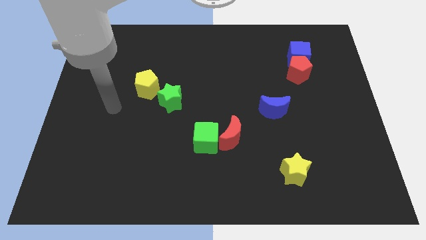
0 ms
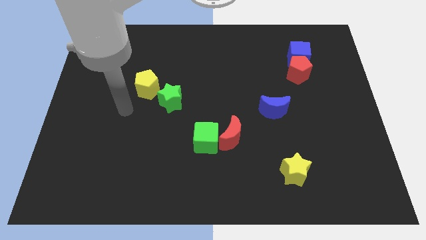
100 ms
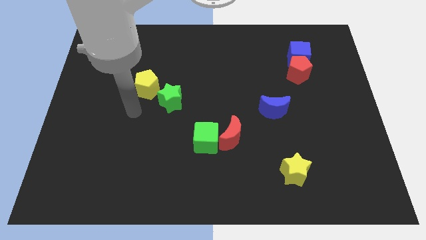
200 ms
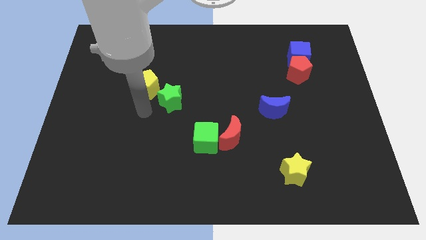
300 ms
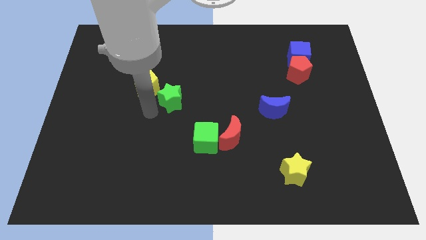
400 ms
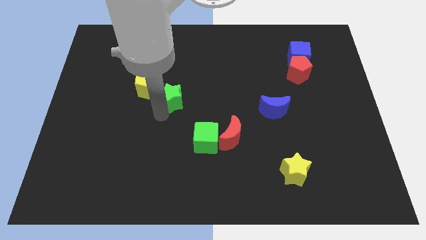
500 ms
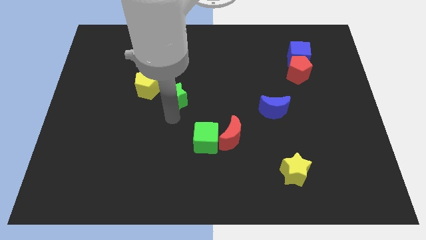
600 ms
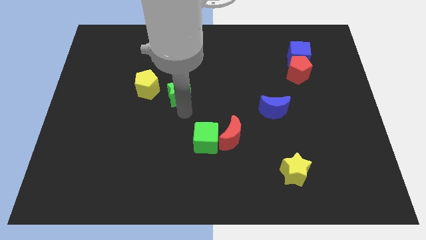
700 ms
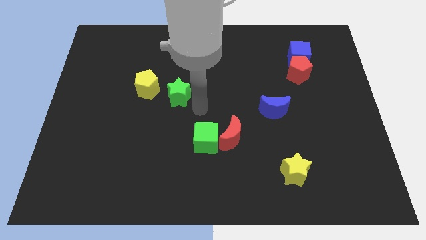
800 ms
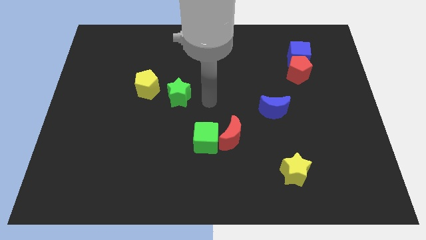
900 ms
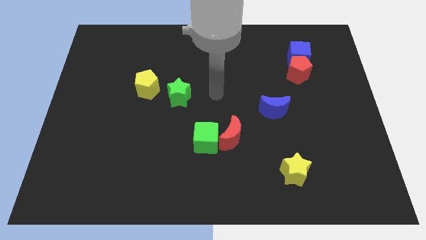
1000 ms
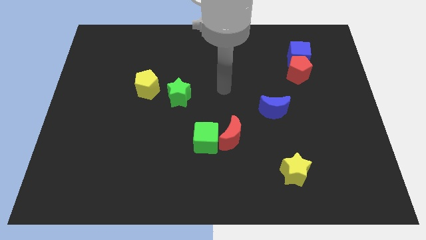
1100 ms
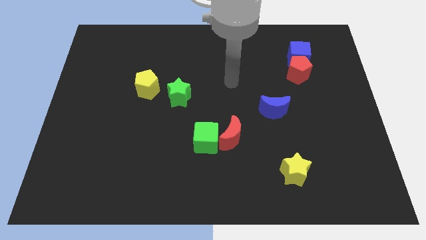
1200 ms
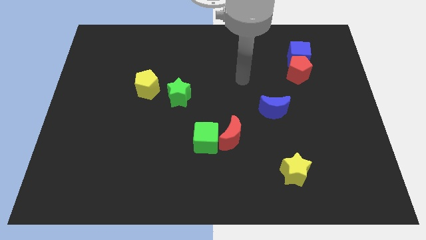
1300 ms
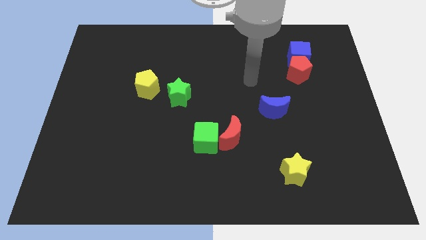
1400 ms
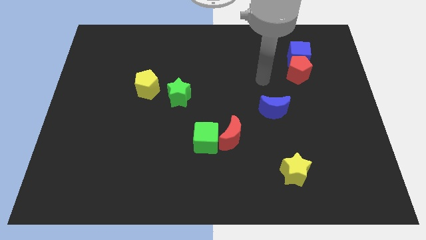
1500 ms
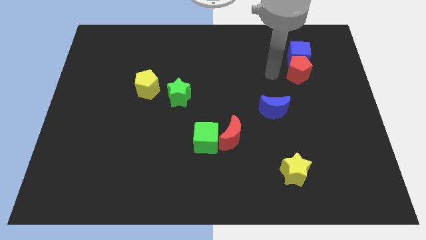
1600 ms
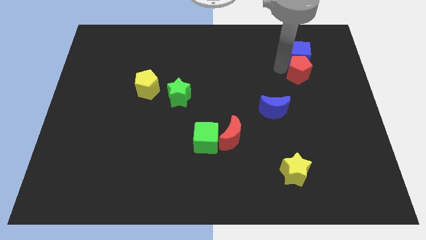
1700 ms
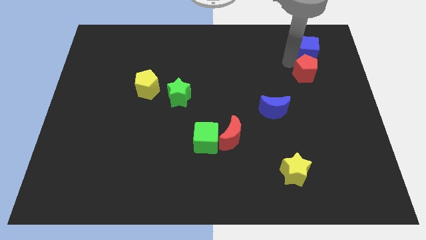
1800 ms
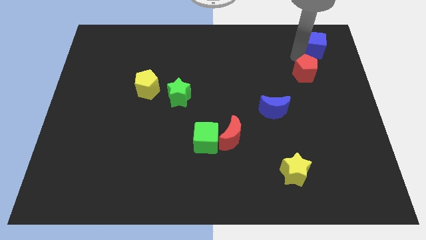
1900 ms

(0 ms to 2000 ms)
separate the red pentagon from the blue cube

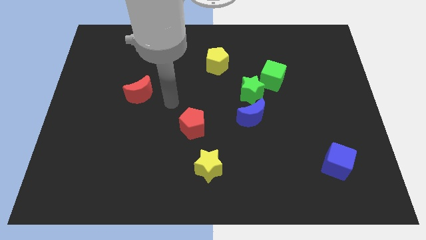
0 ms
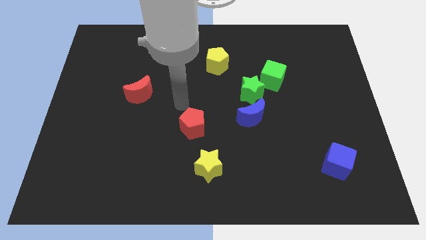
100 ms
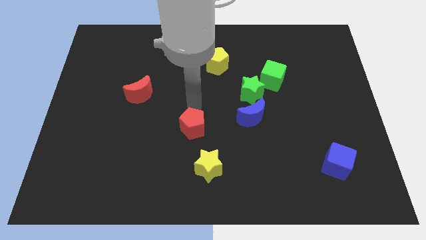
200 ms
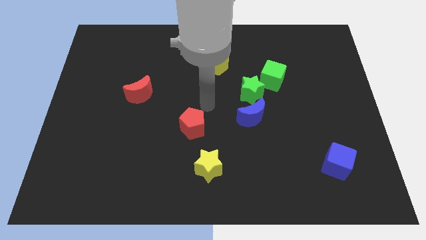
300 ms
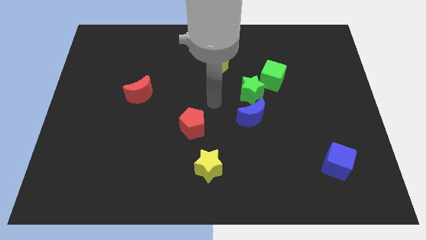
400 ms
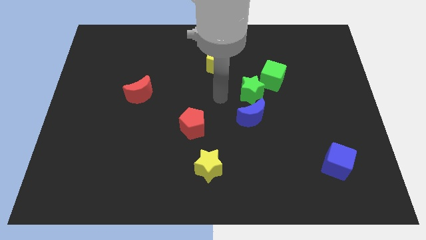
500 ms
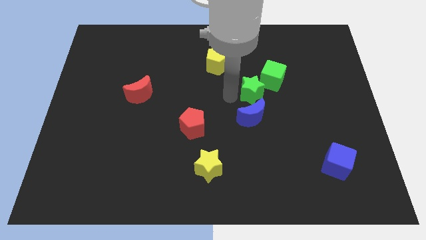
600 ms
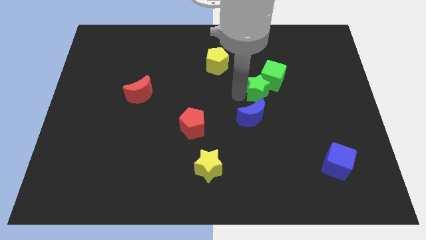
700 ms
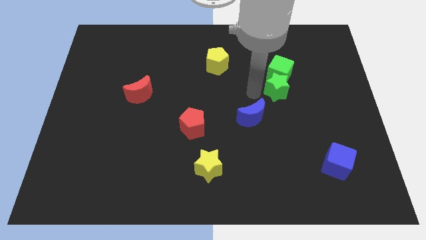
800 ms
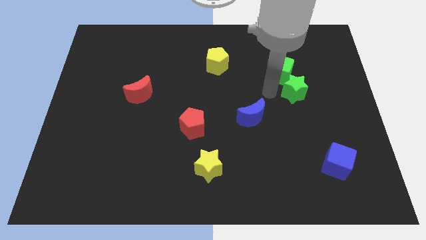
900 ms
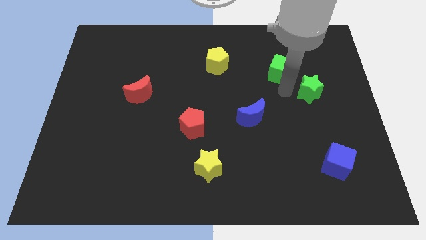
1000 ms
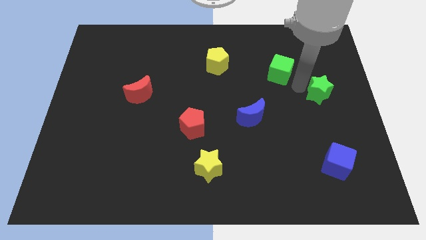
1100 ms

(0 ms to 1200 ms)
pull the green cube apart from the green star

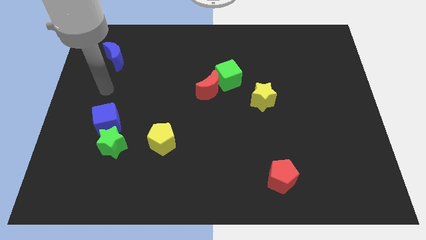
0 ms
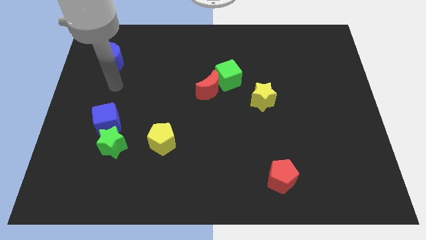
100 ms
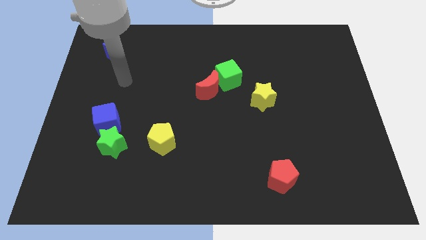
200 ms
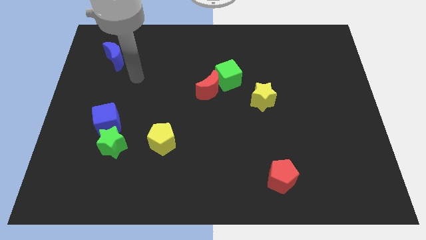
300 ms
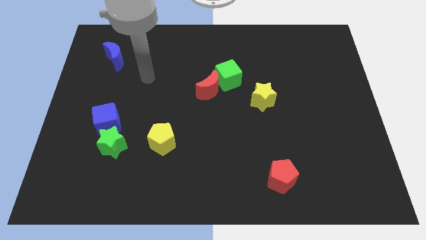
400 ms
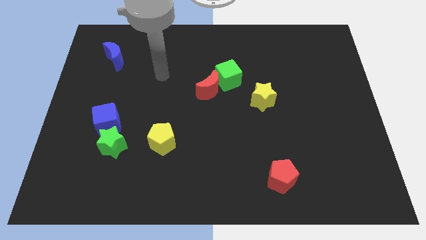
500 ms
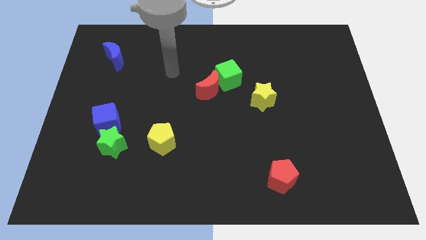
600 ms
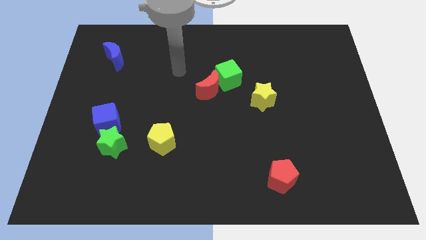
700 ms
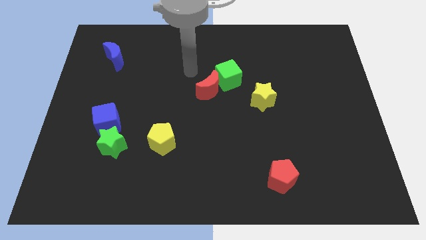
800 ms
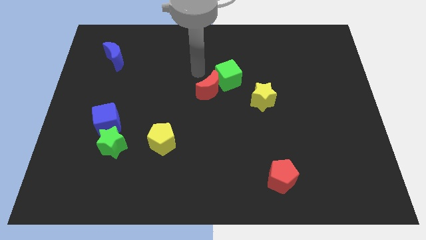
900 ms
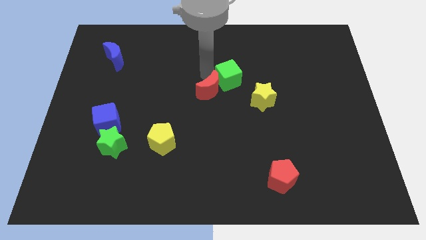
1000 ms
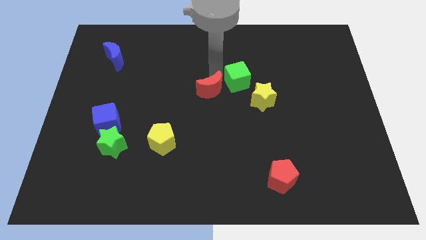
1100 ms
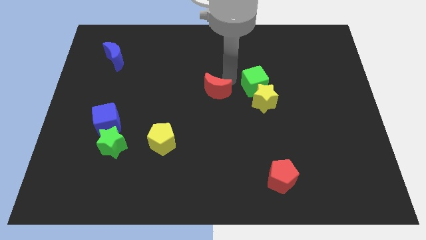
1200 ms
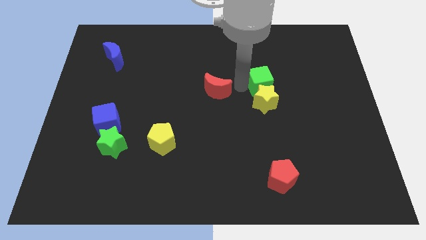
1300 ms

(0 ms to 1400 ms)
separate the red moon from the green cube

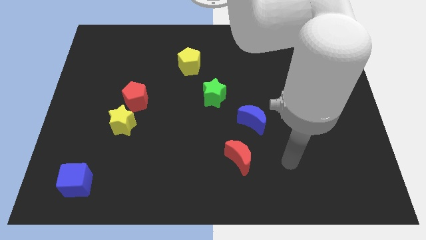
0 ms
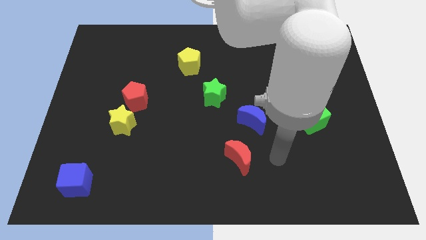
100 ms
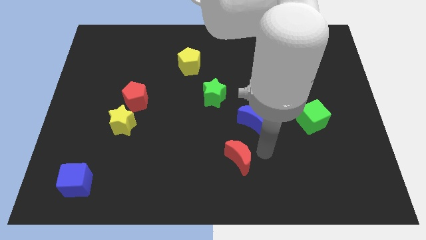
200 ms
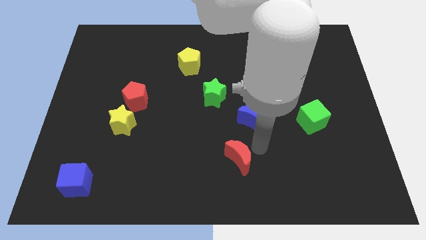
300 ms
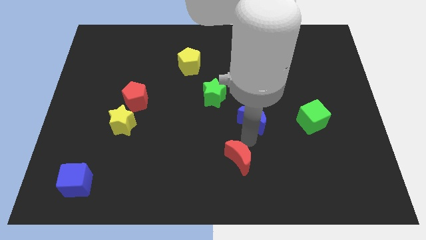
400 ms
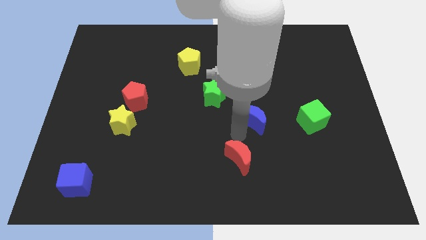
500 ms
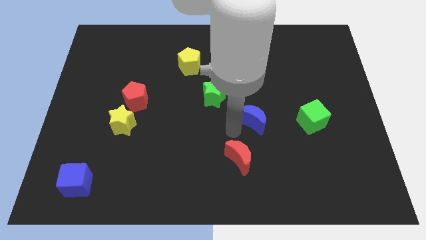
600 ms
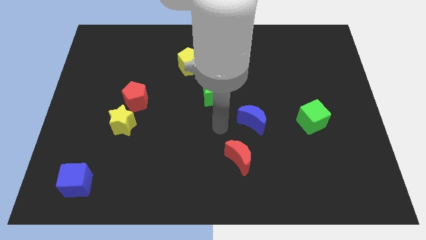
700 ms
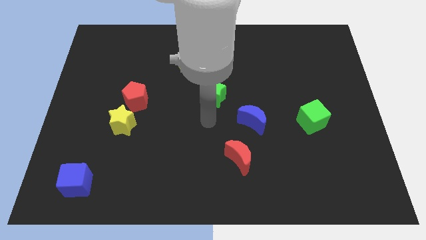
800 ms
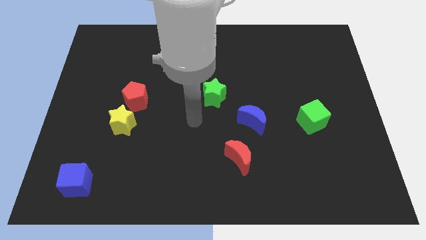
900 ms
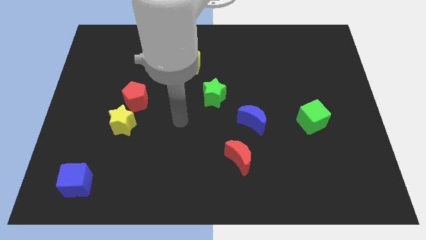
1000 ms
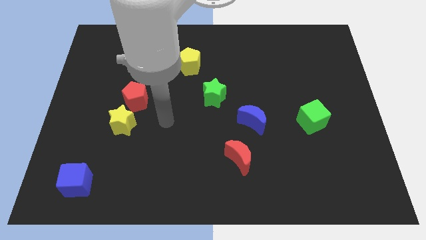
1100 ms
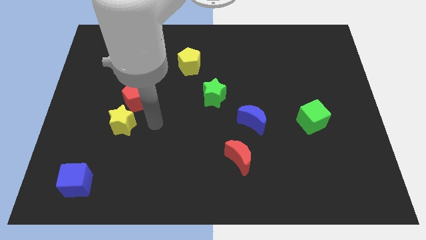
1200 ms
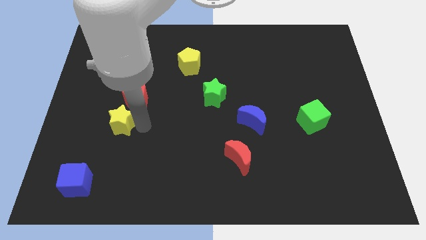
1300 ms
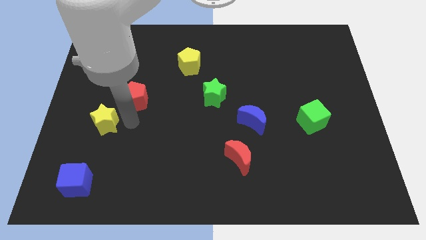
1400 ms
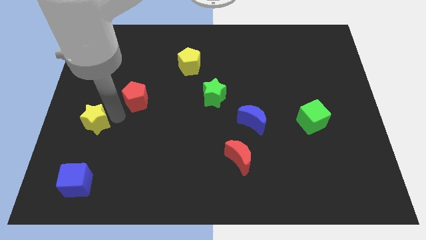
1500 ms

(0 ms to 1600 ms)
pull the red pentagon apart from the yellow star

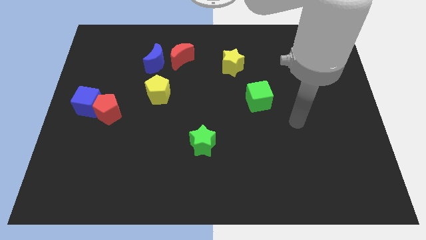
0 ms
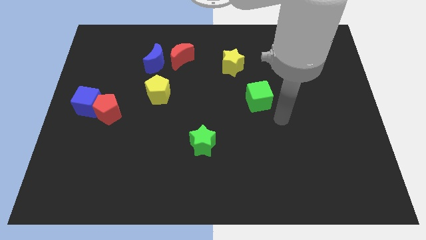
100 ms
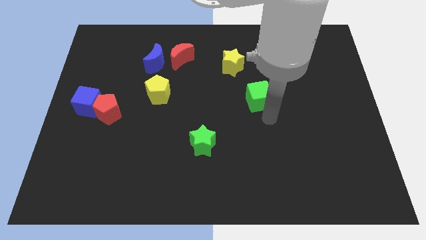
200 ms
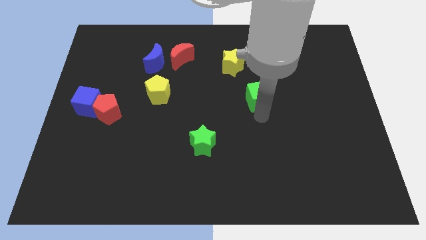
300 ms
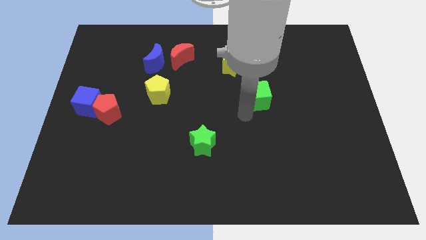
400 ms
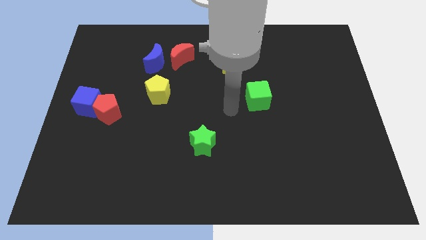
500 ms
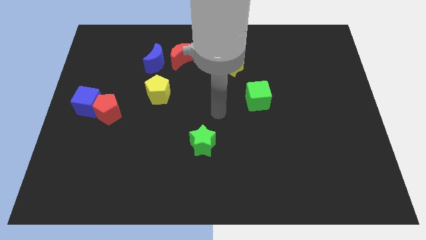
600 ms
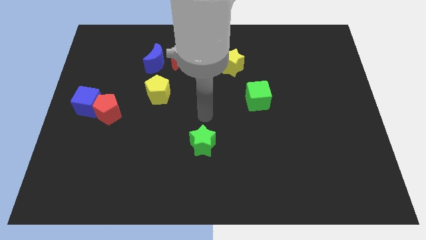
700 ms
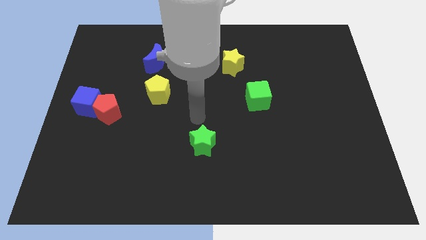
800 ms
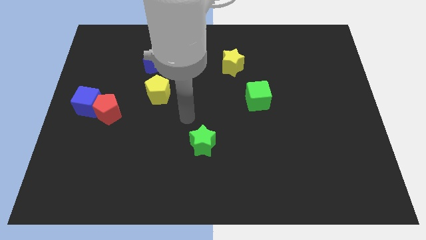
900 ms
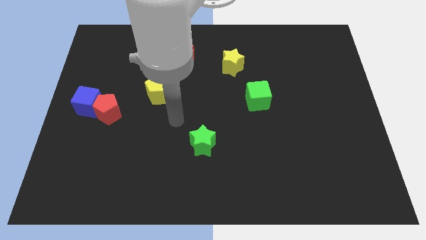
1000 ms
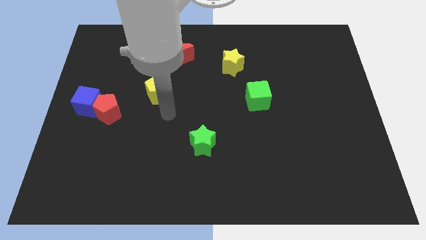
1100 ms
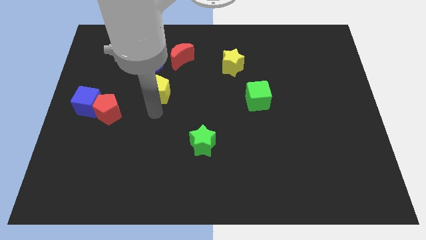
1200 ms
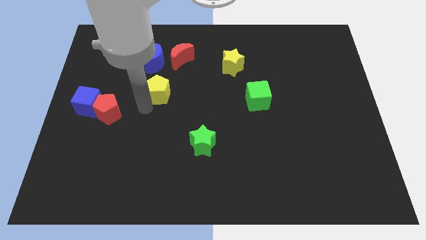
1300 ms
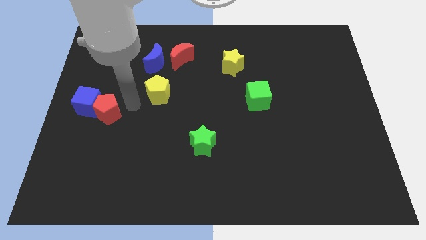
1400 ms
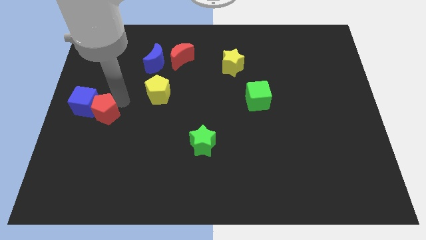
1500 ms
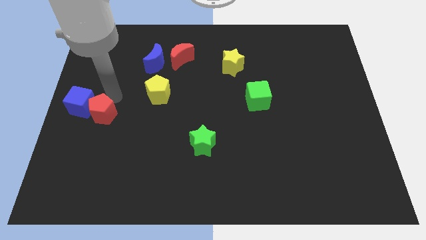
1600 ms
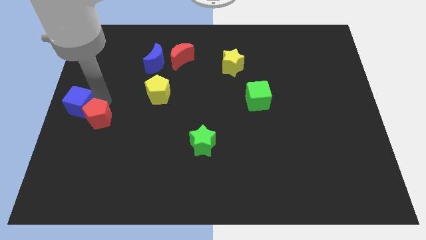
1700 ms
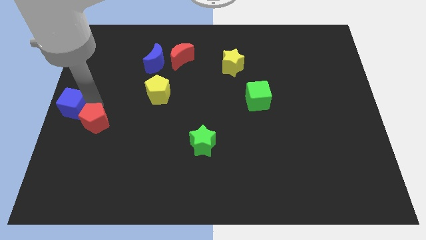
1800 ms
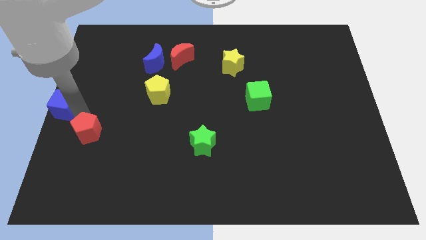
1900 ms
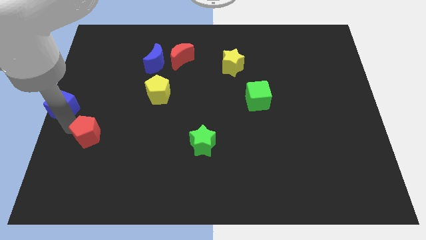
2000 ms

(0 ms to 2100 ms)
move the red pentagon away from the blue cube

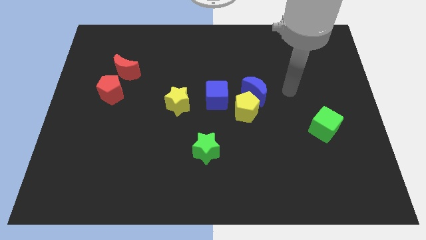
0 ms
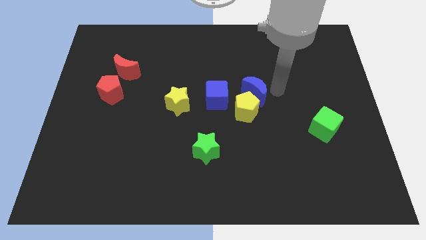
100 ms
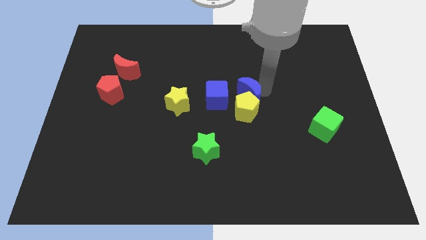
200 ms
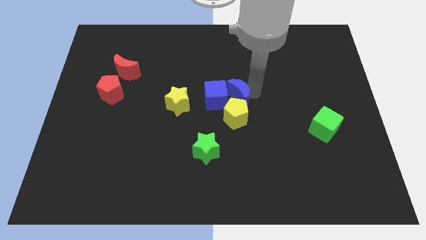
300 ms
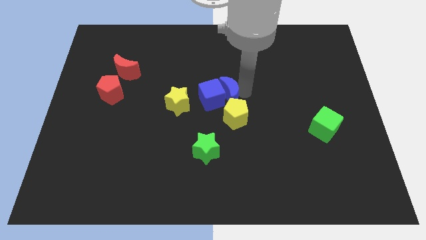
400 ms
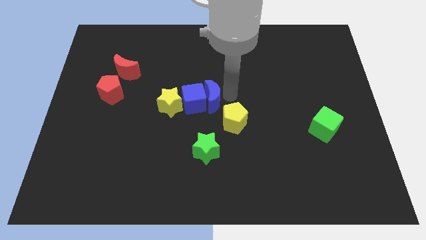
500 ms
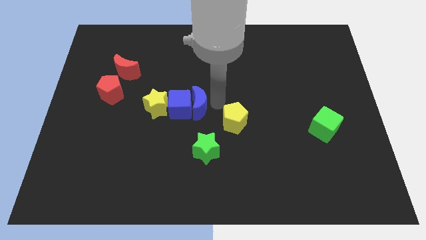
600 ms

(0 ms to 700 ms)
separate the yellow pentagon from the blue moon and blue cube

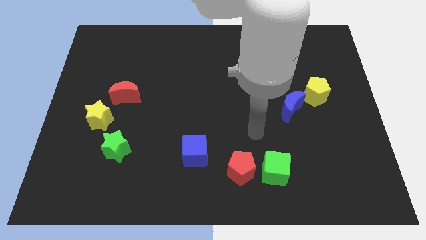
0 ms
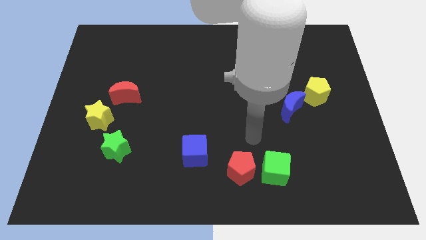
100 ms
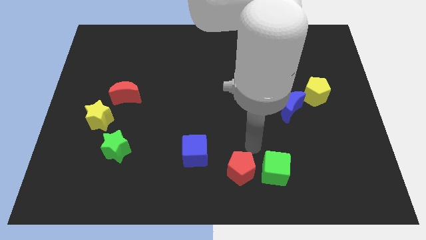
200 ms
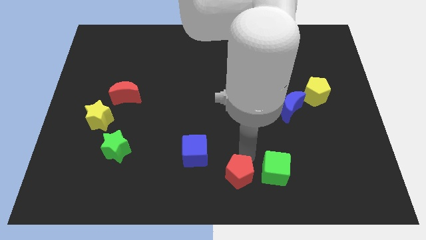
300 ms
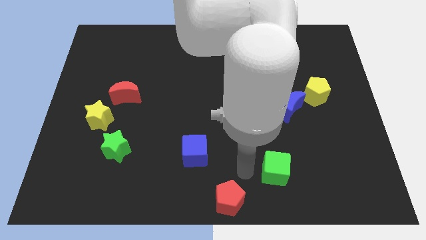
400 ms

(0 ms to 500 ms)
pull the green cube apart from the red pentagon

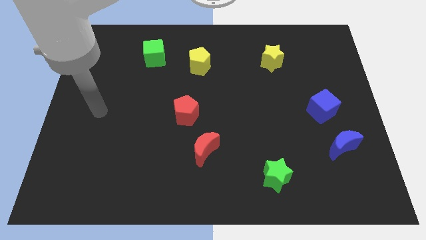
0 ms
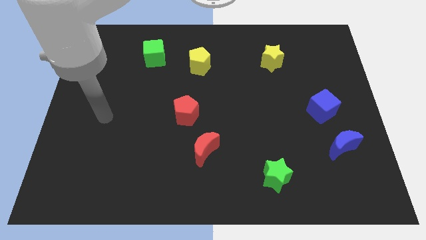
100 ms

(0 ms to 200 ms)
separate the blue moon from the blue cube
